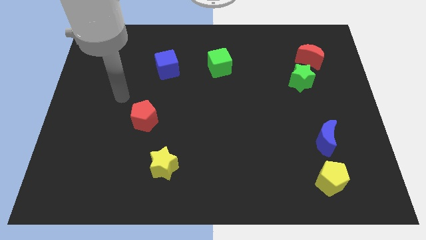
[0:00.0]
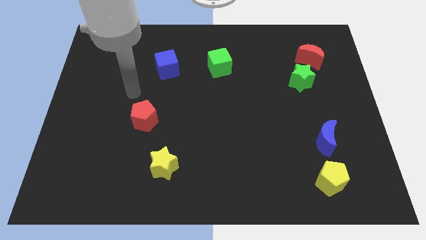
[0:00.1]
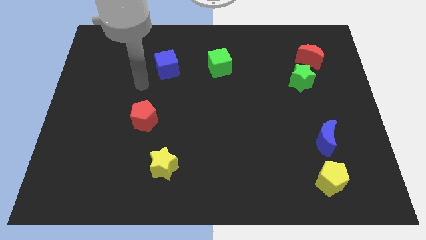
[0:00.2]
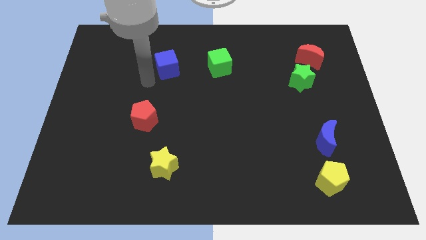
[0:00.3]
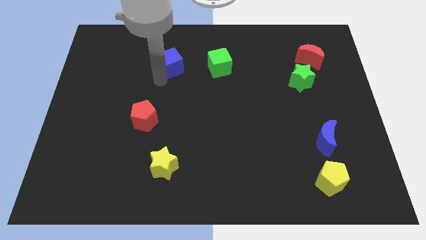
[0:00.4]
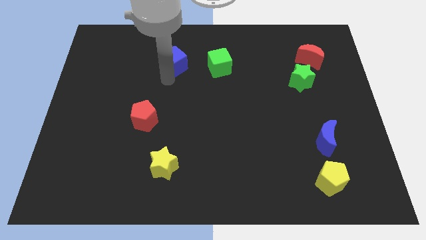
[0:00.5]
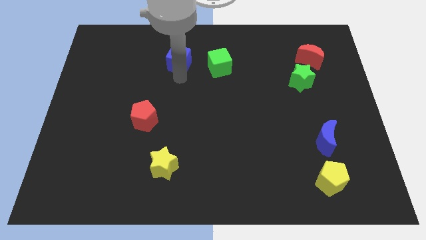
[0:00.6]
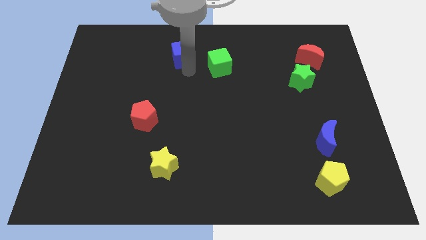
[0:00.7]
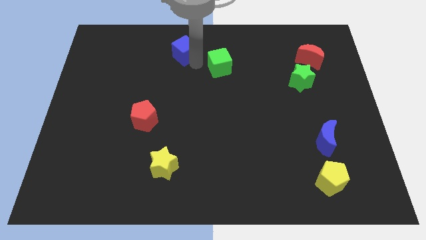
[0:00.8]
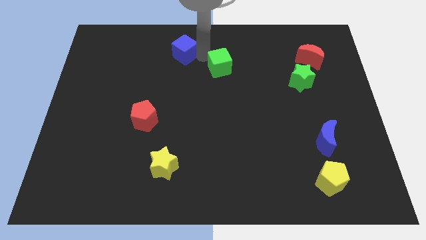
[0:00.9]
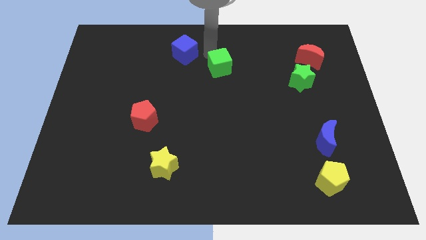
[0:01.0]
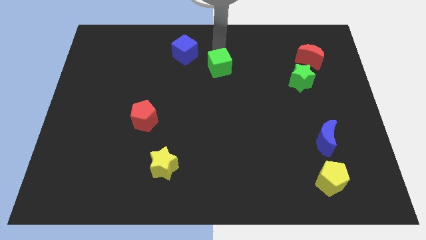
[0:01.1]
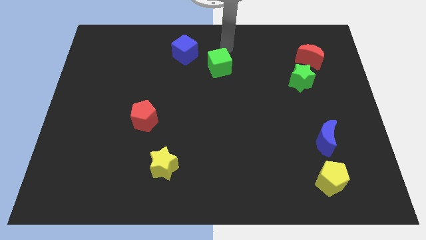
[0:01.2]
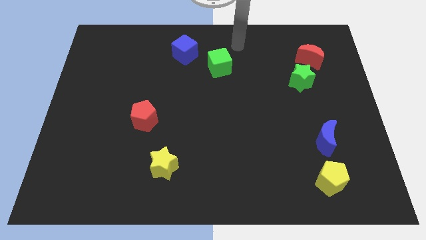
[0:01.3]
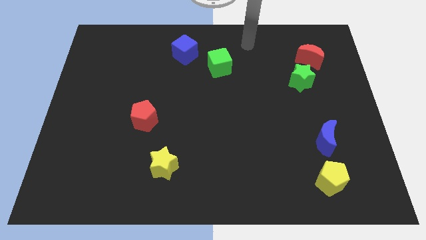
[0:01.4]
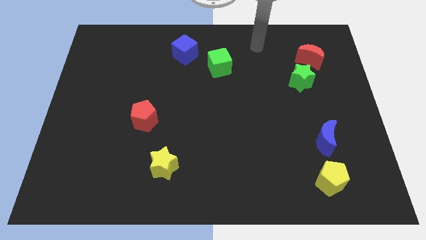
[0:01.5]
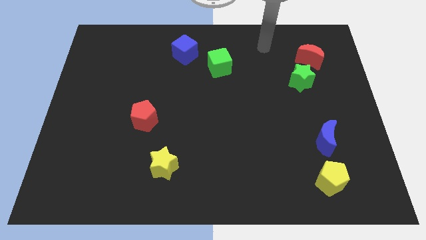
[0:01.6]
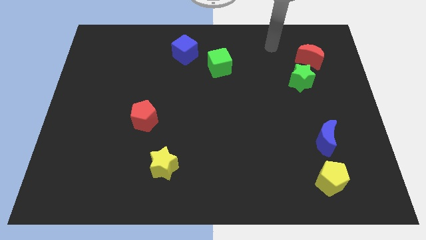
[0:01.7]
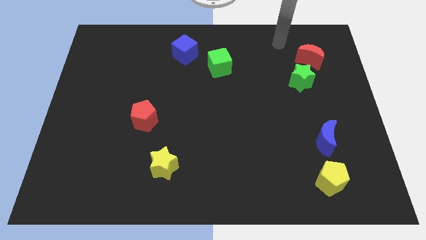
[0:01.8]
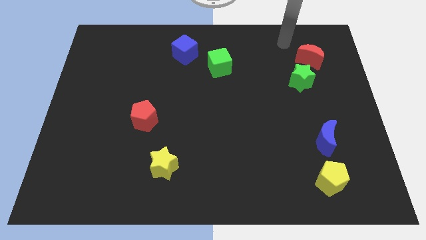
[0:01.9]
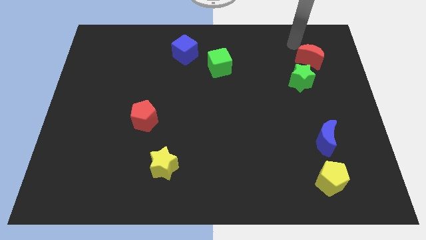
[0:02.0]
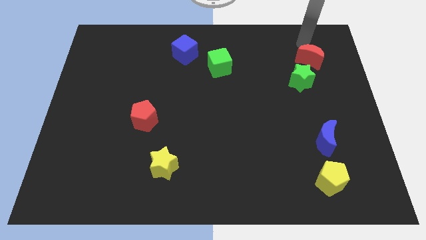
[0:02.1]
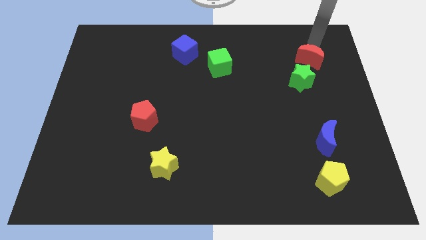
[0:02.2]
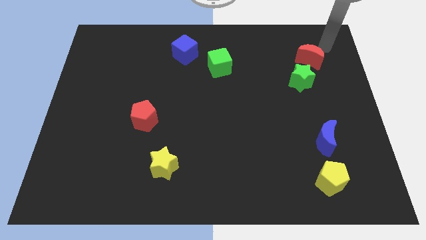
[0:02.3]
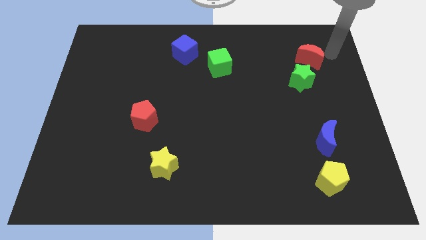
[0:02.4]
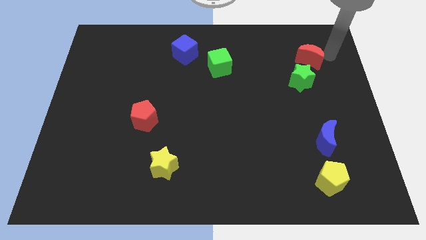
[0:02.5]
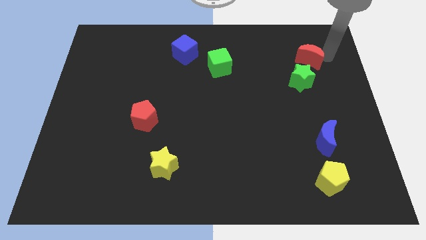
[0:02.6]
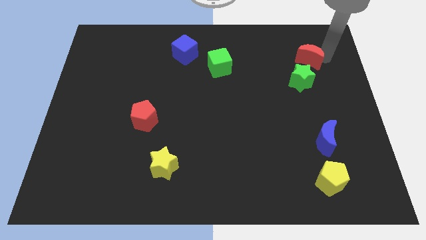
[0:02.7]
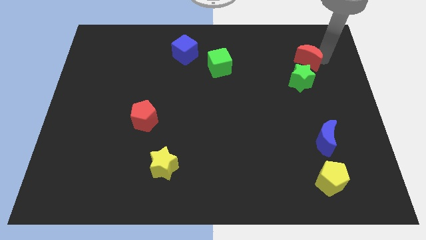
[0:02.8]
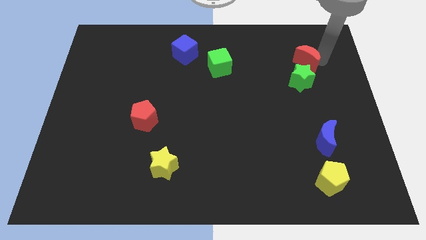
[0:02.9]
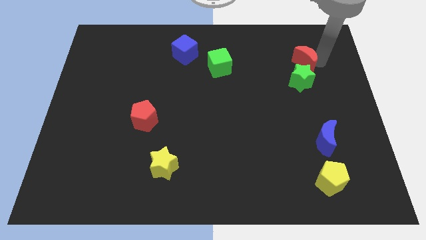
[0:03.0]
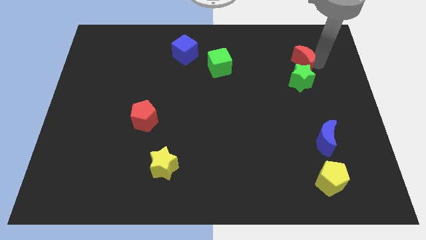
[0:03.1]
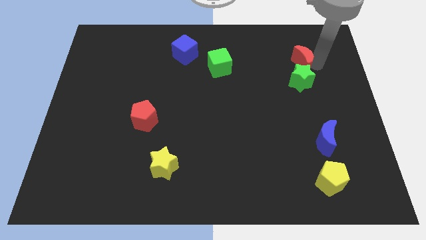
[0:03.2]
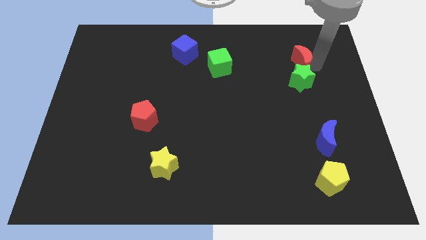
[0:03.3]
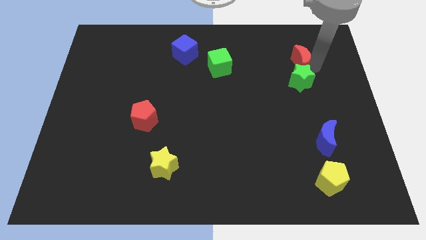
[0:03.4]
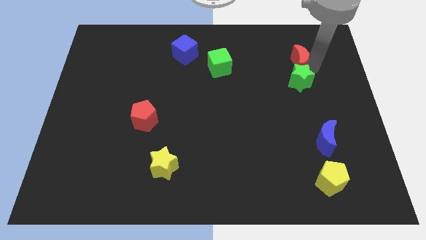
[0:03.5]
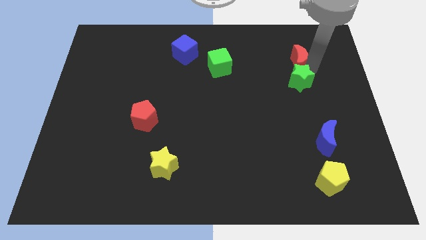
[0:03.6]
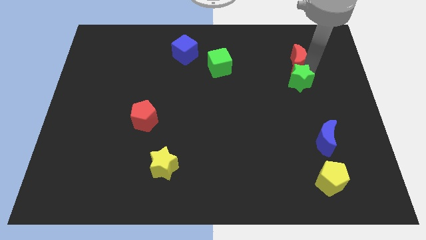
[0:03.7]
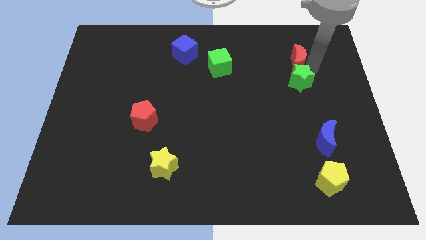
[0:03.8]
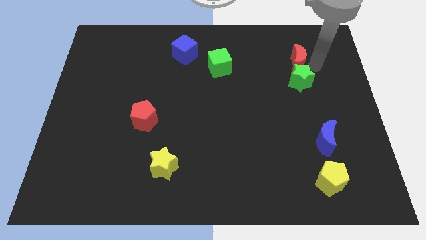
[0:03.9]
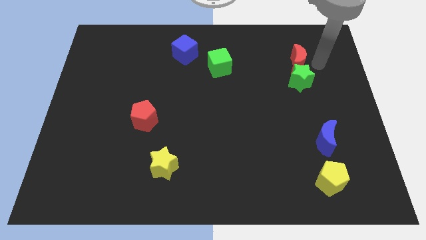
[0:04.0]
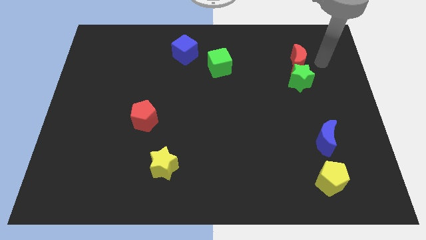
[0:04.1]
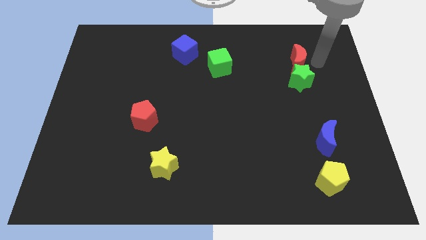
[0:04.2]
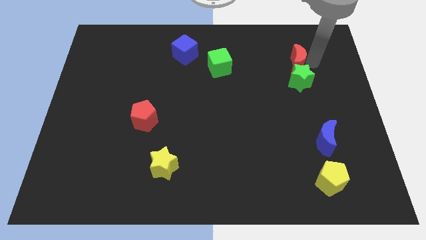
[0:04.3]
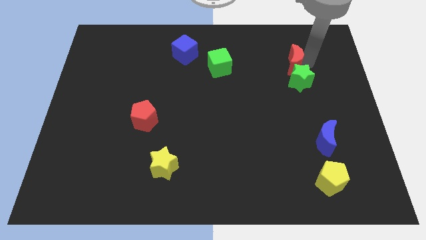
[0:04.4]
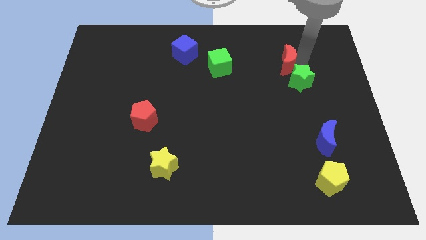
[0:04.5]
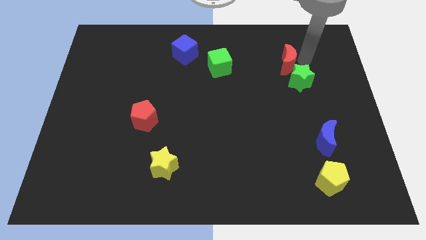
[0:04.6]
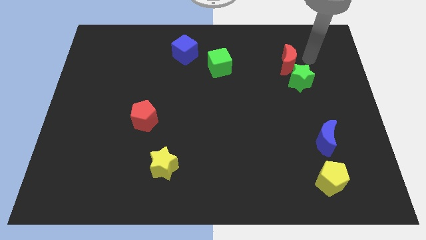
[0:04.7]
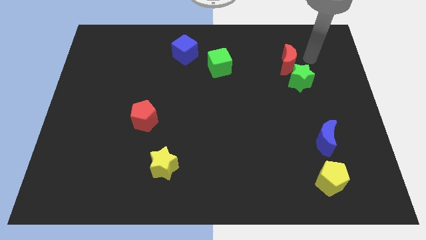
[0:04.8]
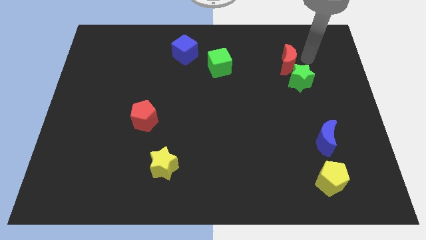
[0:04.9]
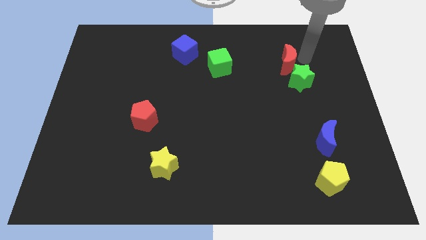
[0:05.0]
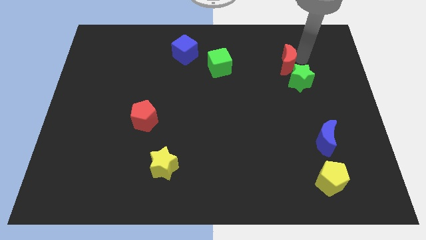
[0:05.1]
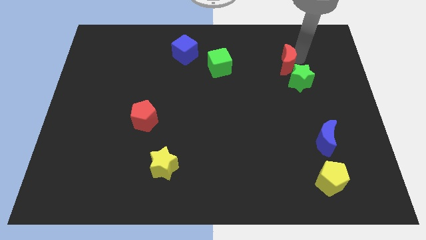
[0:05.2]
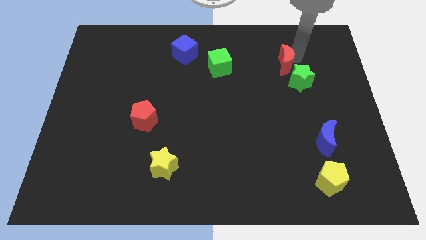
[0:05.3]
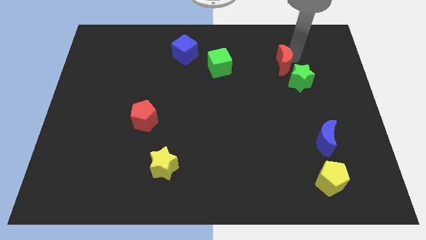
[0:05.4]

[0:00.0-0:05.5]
slide the red moon somewhat left

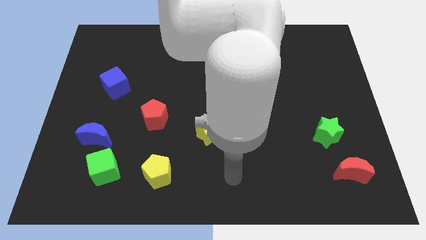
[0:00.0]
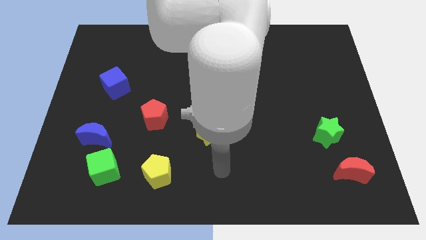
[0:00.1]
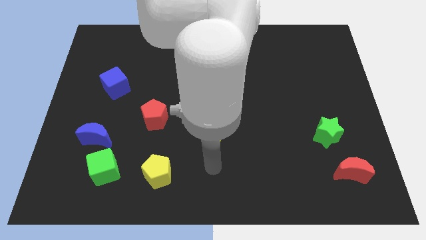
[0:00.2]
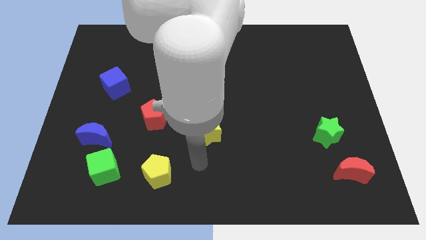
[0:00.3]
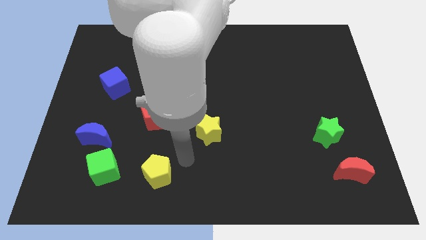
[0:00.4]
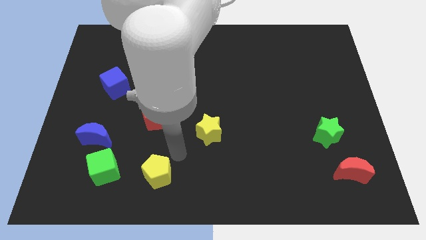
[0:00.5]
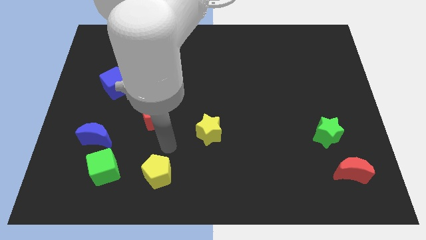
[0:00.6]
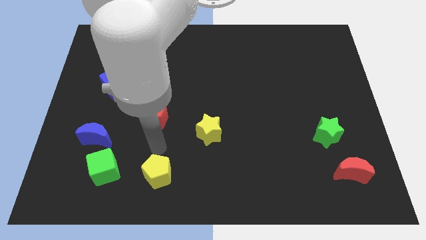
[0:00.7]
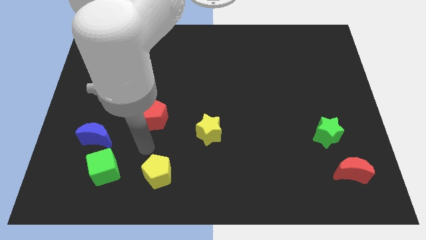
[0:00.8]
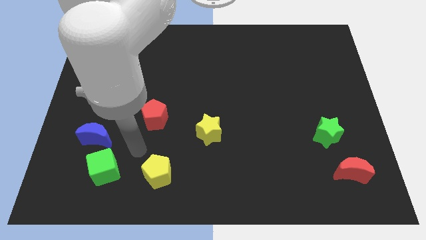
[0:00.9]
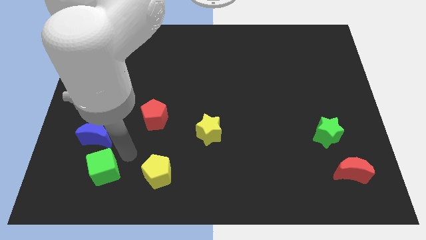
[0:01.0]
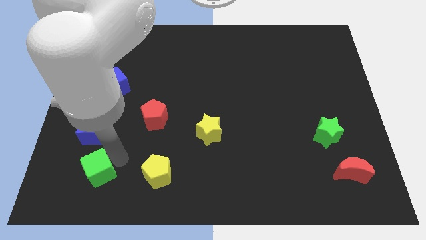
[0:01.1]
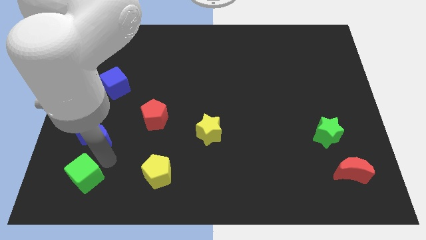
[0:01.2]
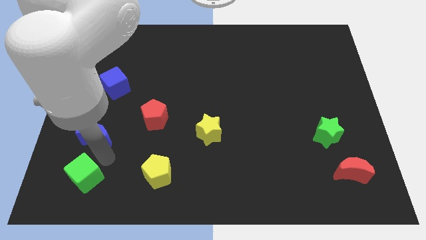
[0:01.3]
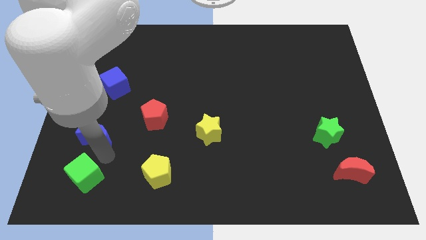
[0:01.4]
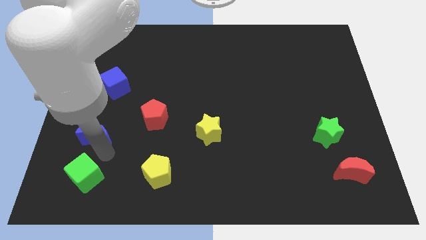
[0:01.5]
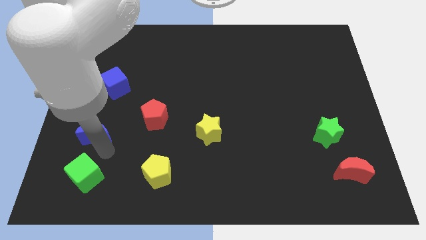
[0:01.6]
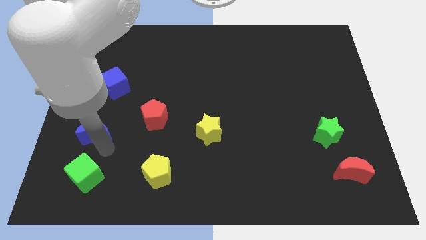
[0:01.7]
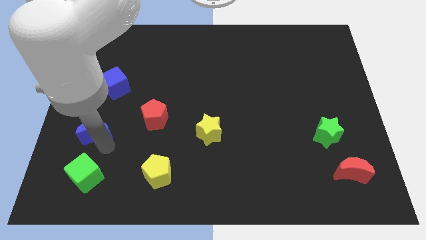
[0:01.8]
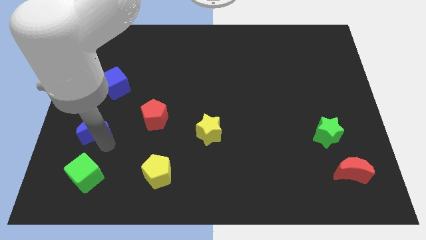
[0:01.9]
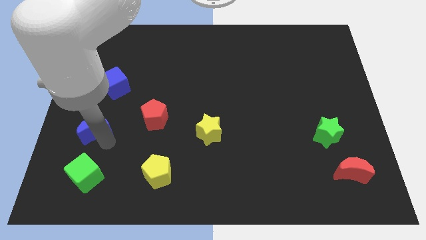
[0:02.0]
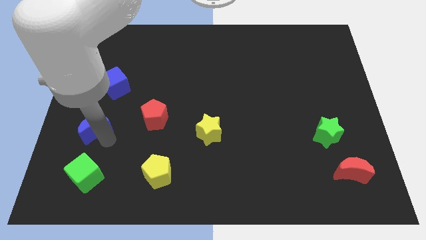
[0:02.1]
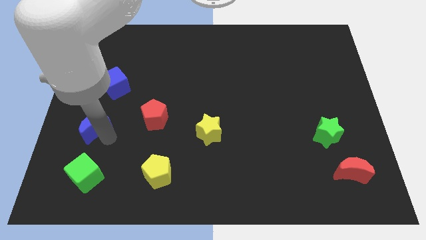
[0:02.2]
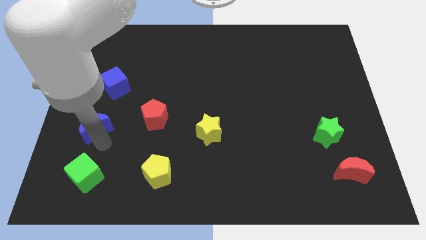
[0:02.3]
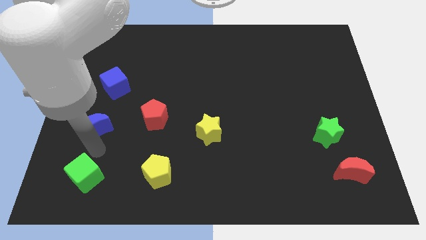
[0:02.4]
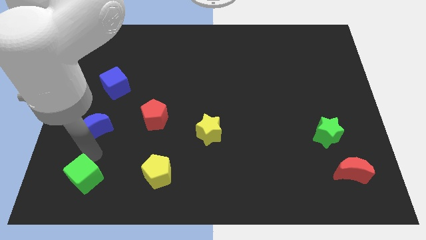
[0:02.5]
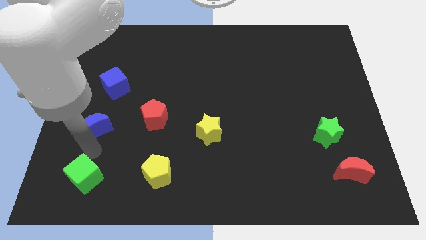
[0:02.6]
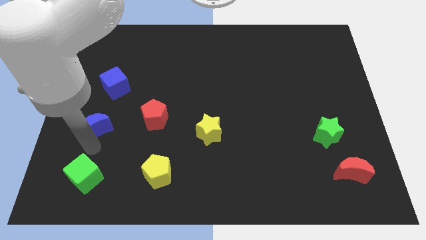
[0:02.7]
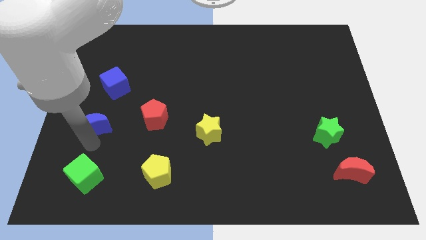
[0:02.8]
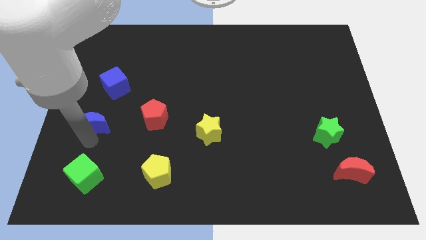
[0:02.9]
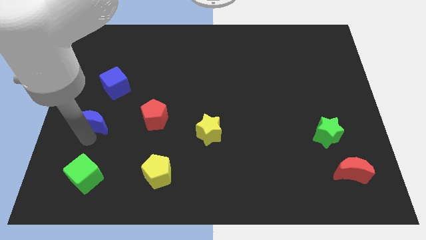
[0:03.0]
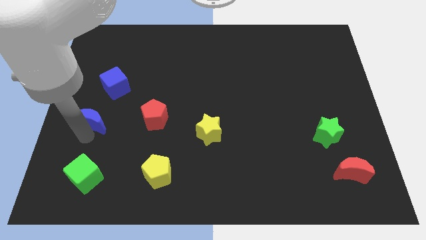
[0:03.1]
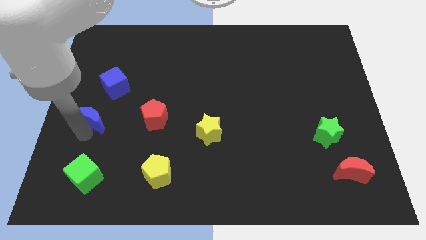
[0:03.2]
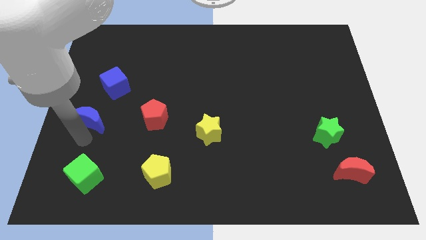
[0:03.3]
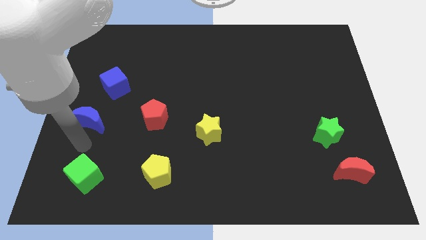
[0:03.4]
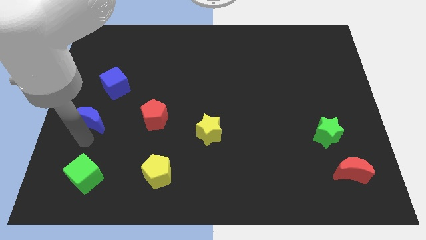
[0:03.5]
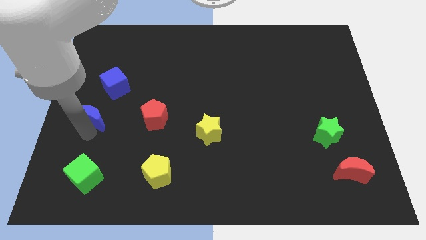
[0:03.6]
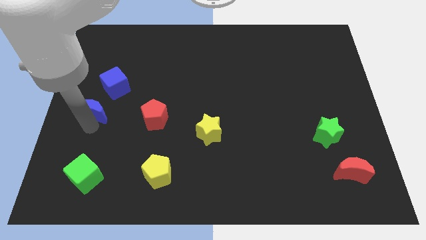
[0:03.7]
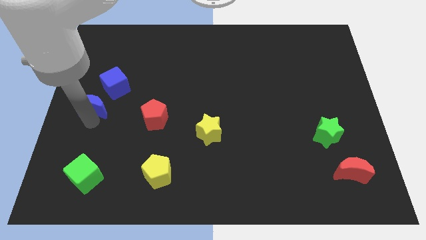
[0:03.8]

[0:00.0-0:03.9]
slightly push the blue moon up
